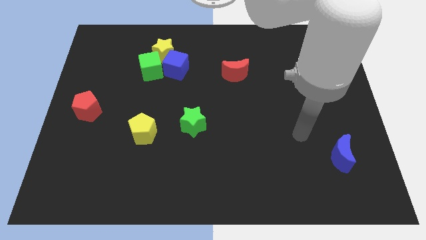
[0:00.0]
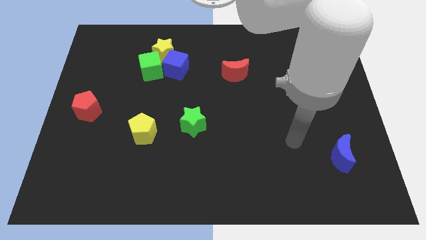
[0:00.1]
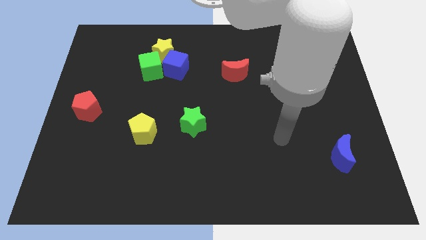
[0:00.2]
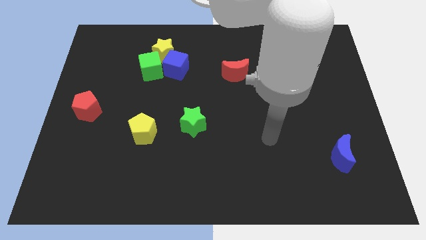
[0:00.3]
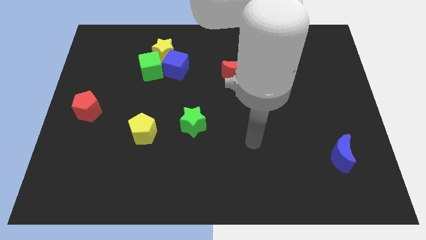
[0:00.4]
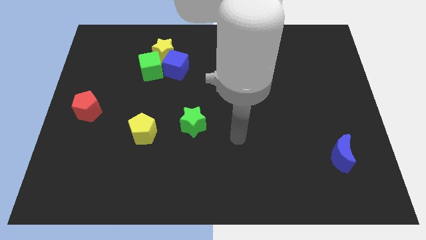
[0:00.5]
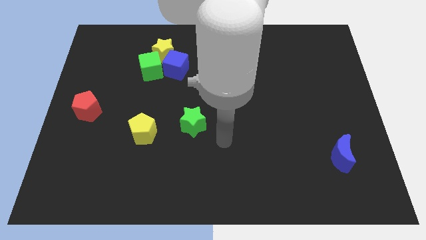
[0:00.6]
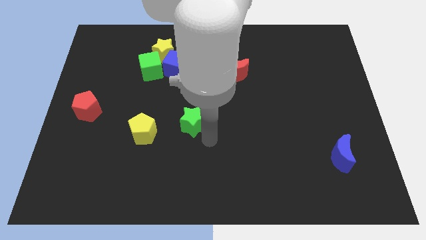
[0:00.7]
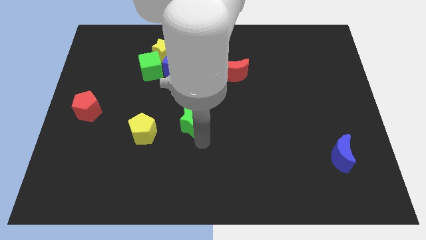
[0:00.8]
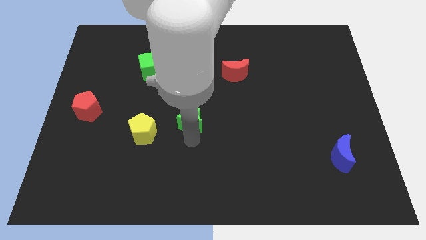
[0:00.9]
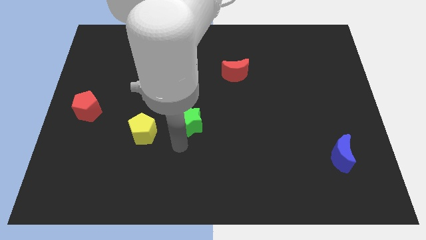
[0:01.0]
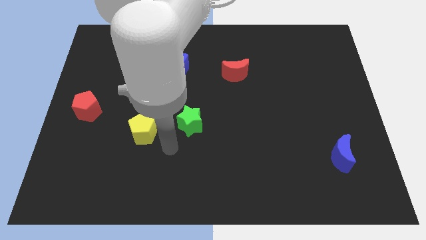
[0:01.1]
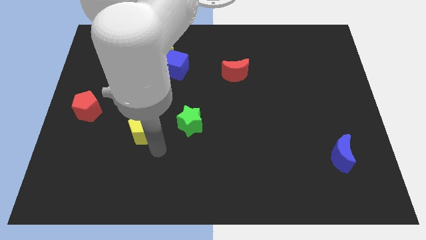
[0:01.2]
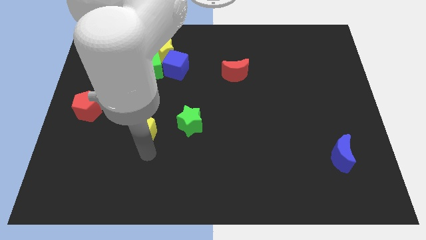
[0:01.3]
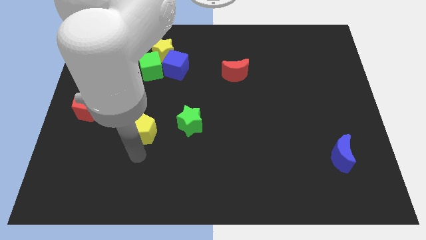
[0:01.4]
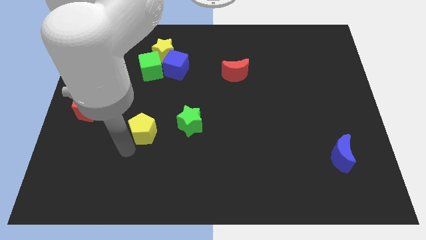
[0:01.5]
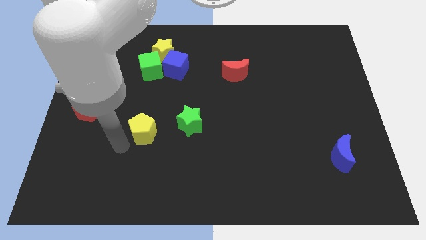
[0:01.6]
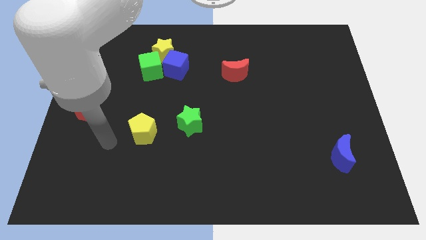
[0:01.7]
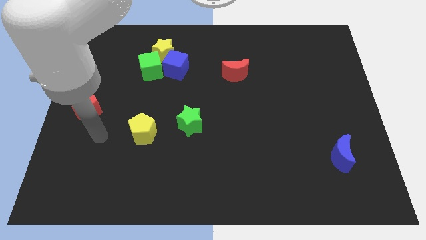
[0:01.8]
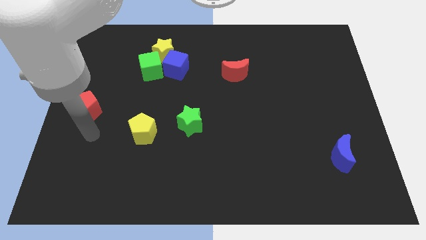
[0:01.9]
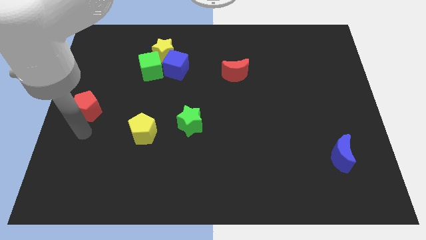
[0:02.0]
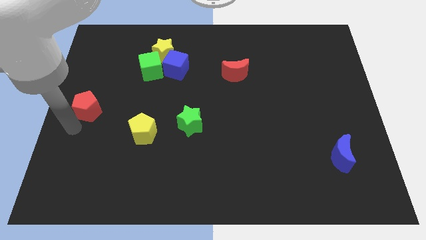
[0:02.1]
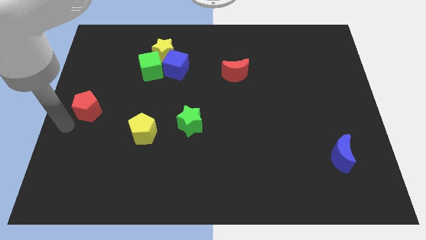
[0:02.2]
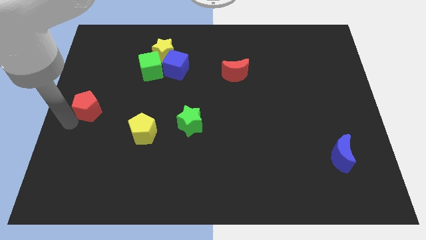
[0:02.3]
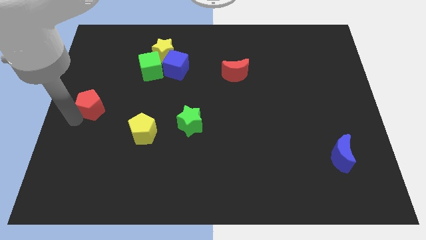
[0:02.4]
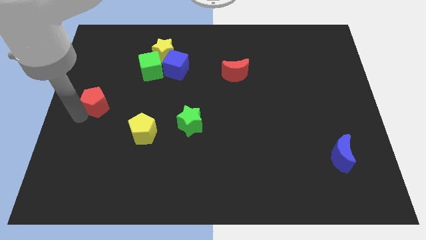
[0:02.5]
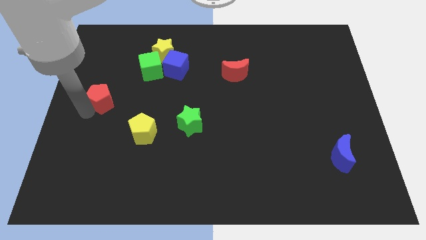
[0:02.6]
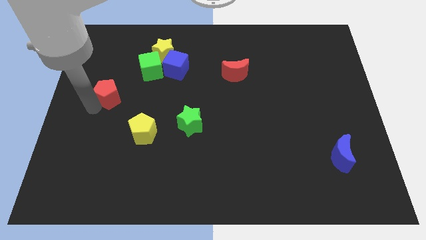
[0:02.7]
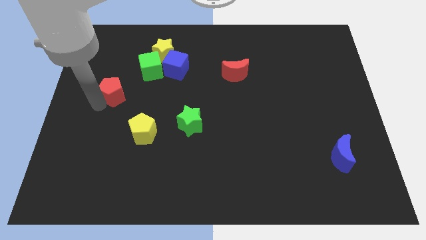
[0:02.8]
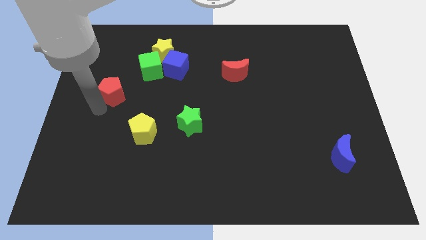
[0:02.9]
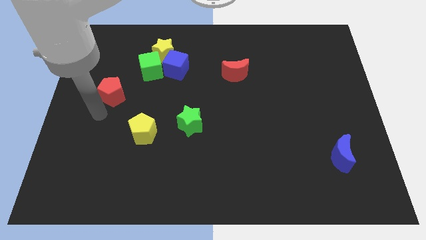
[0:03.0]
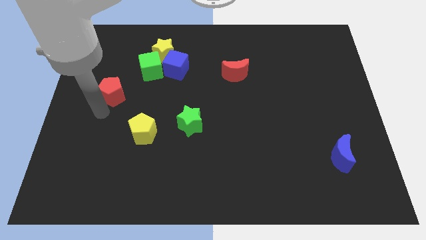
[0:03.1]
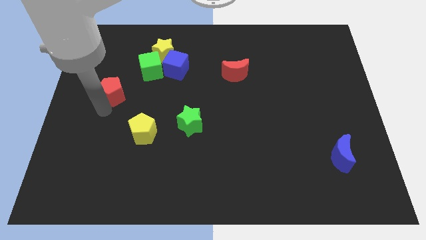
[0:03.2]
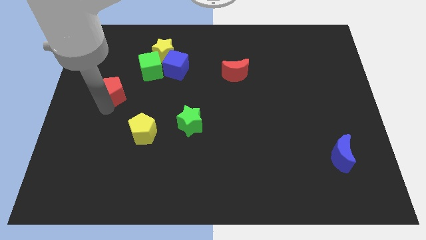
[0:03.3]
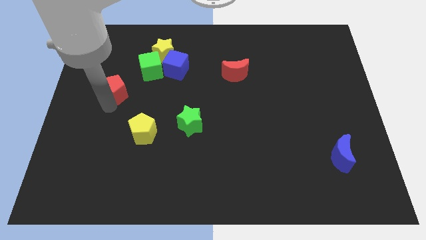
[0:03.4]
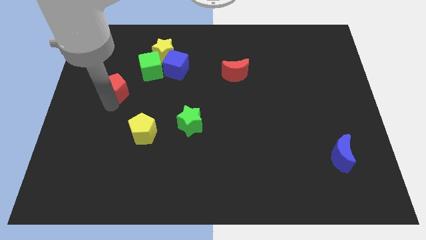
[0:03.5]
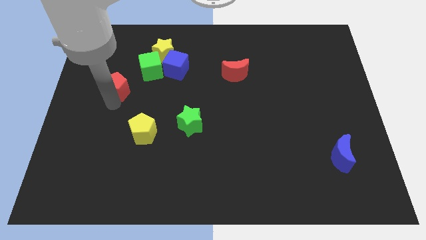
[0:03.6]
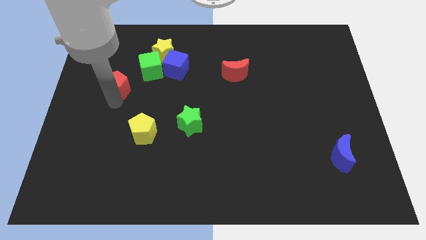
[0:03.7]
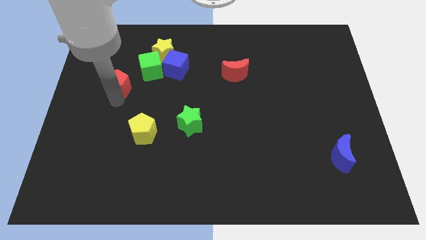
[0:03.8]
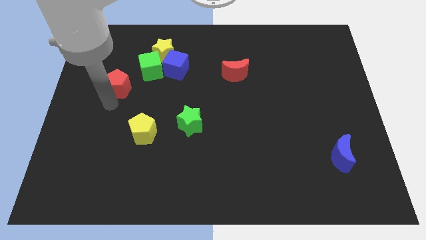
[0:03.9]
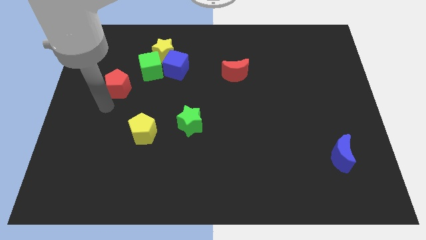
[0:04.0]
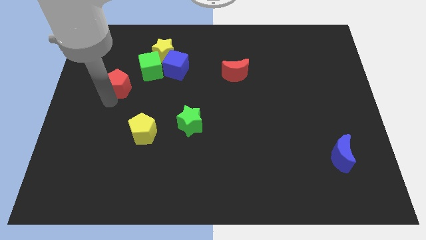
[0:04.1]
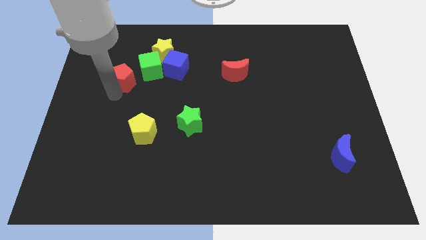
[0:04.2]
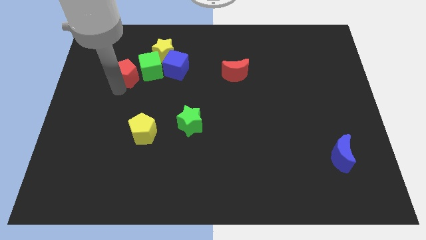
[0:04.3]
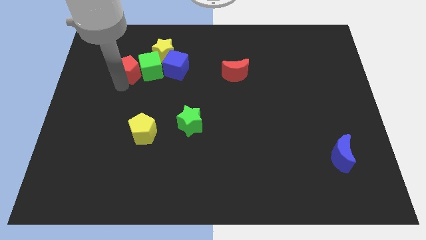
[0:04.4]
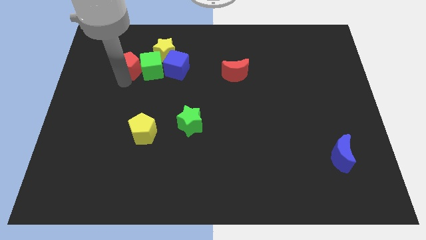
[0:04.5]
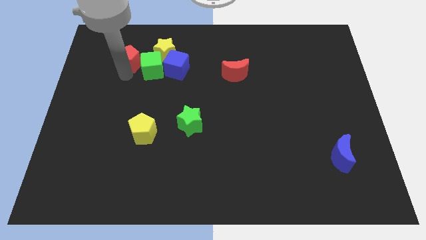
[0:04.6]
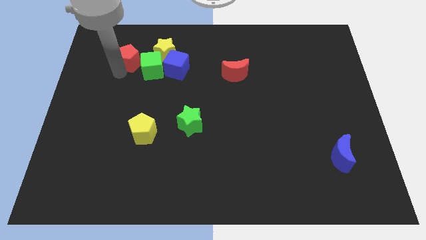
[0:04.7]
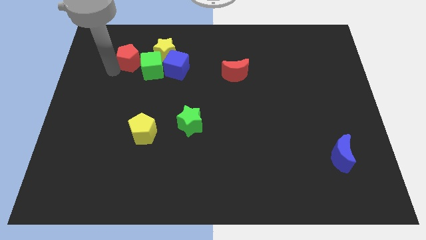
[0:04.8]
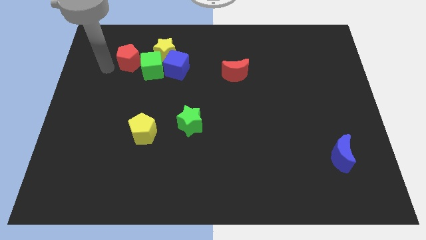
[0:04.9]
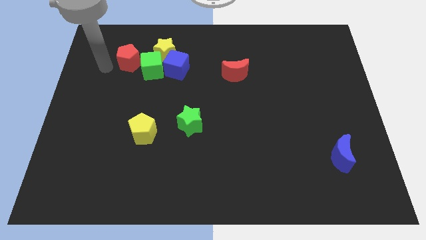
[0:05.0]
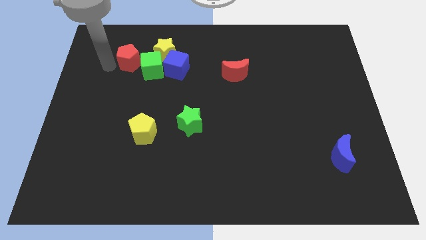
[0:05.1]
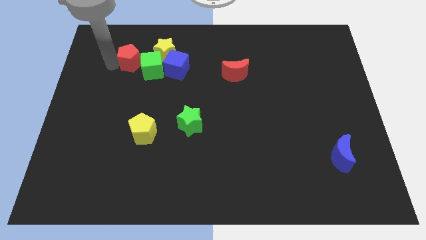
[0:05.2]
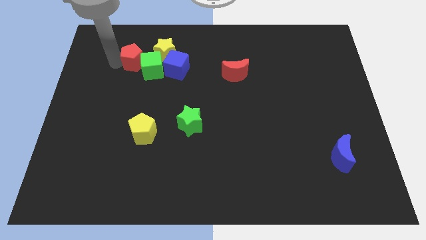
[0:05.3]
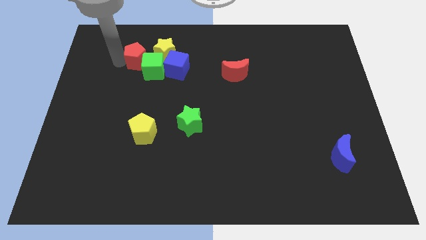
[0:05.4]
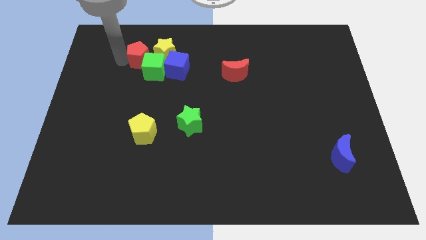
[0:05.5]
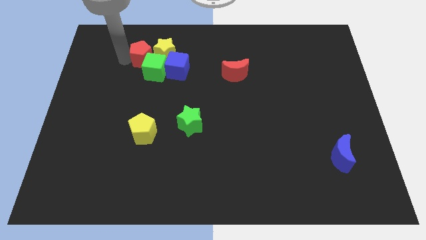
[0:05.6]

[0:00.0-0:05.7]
slide the red pentagon towards the yellow star

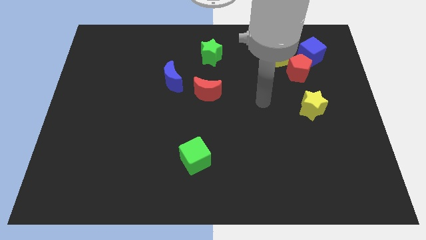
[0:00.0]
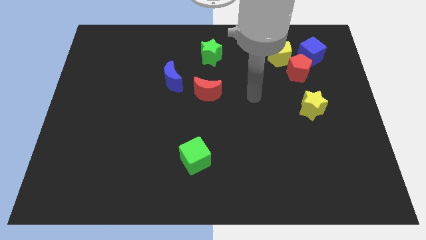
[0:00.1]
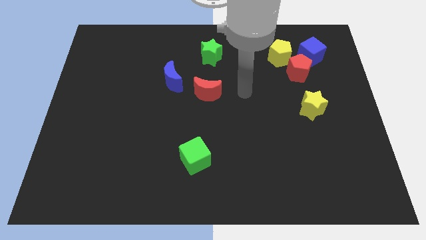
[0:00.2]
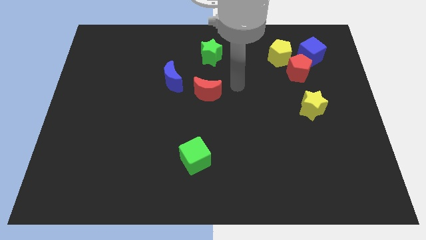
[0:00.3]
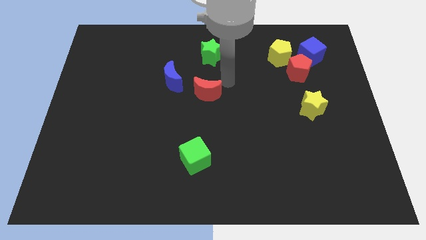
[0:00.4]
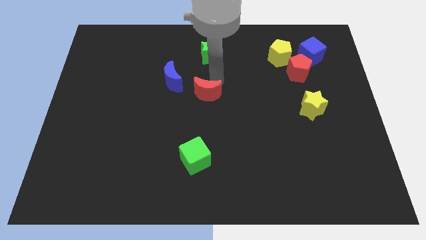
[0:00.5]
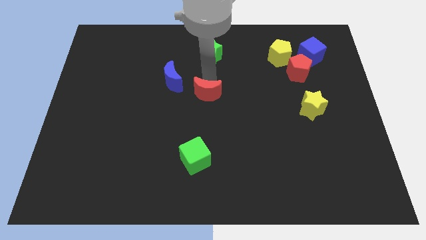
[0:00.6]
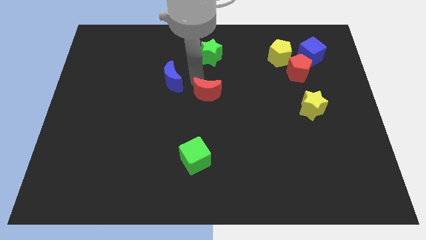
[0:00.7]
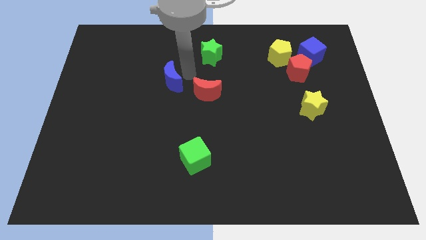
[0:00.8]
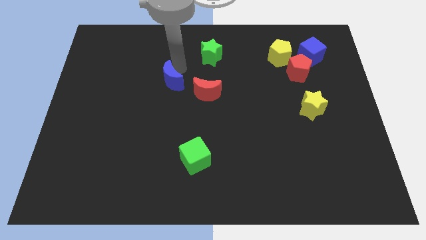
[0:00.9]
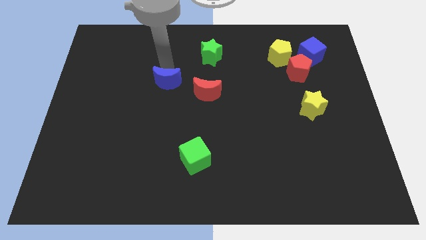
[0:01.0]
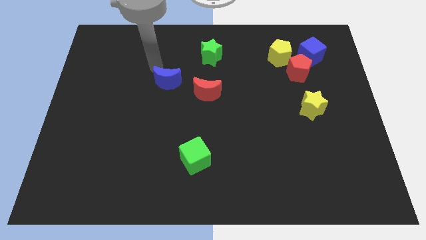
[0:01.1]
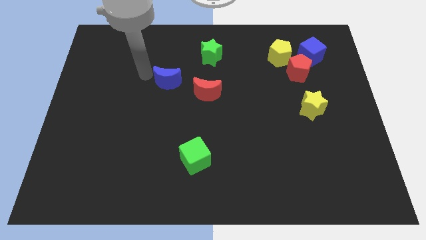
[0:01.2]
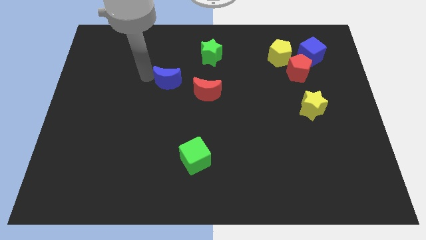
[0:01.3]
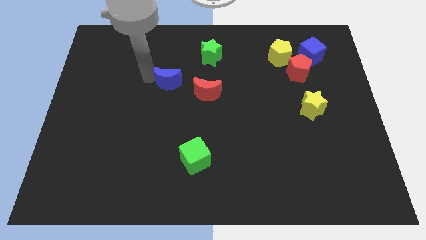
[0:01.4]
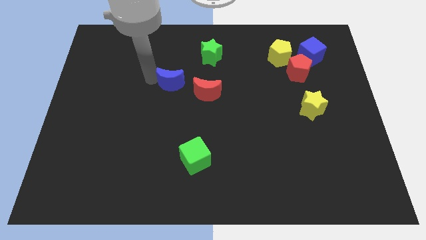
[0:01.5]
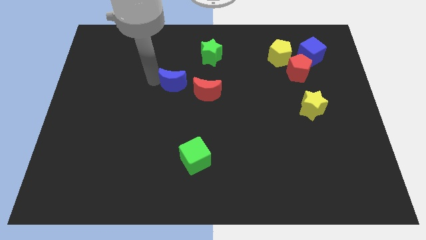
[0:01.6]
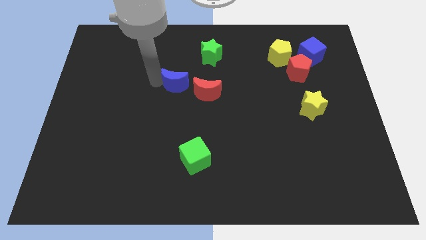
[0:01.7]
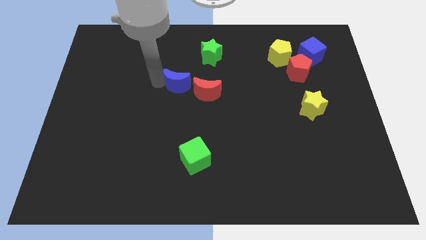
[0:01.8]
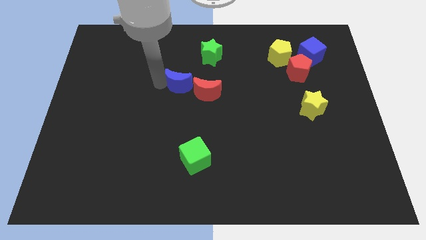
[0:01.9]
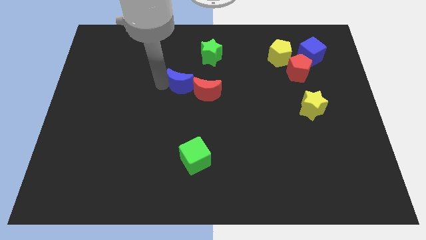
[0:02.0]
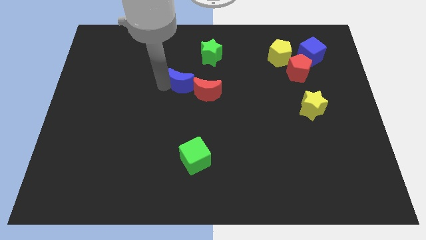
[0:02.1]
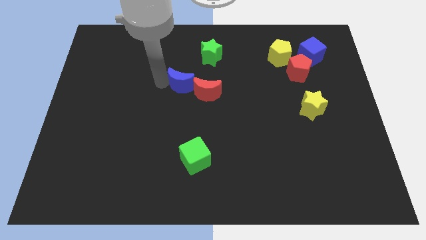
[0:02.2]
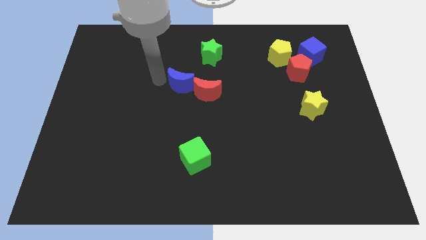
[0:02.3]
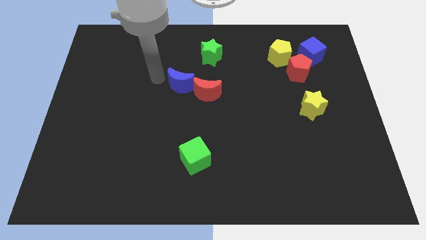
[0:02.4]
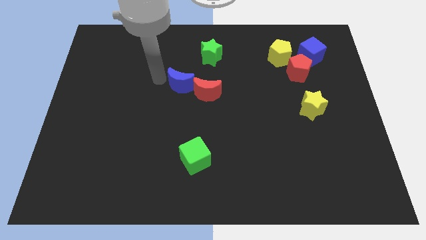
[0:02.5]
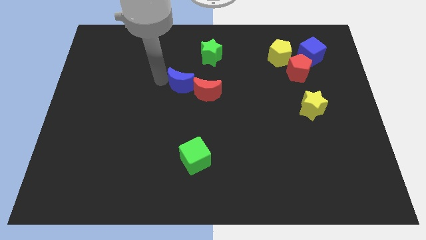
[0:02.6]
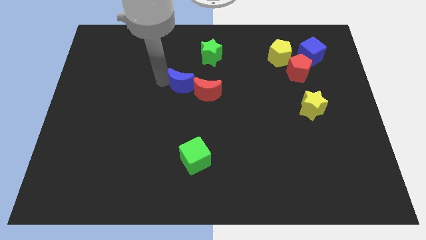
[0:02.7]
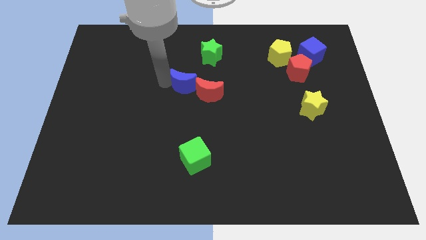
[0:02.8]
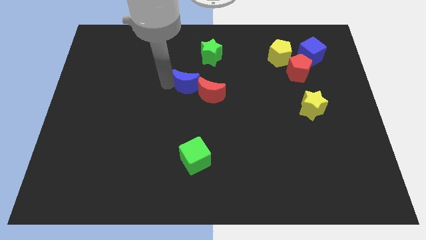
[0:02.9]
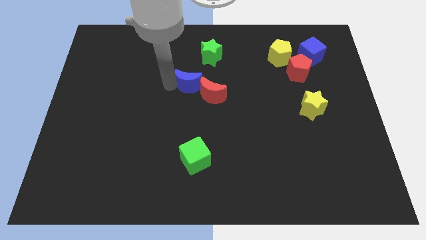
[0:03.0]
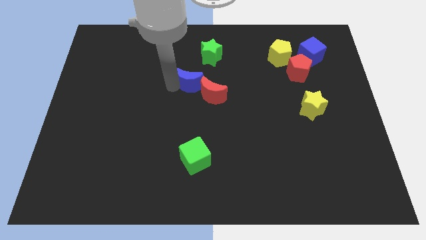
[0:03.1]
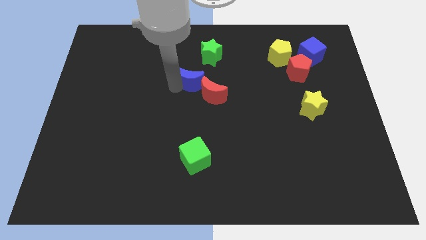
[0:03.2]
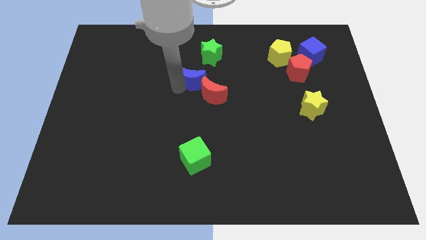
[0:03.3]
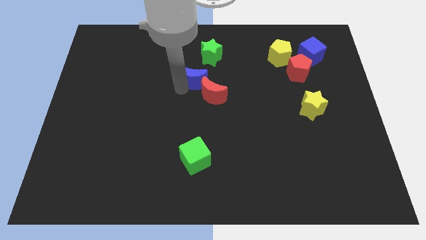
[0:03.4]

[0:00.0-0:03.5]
push the blue moon next to the red moon
